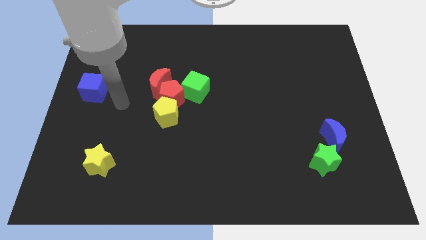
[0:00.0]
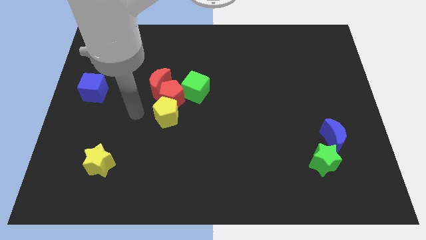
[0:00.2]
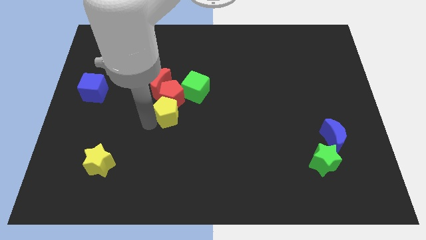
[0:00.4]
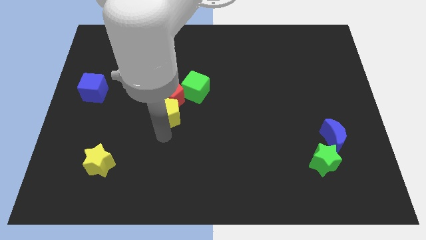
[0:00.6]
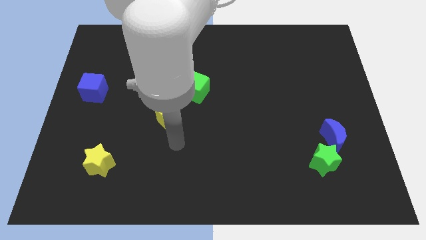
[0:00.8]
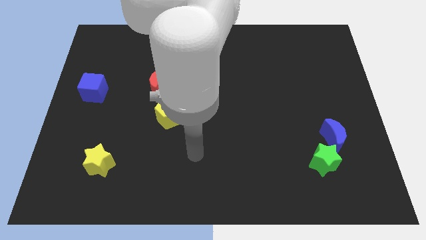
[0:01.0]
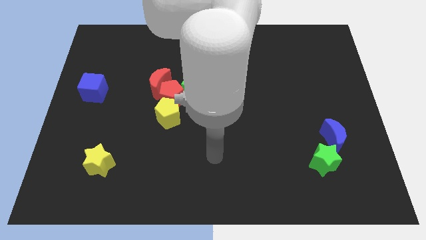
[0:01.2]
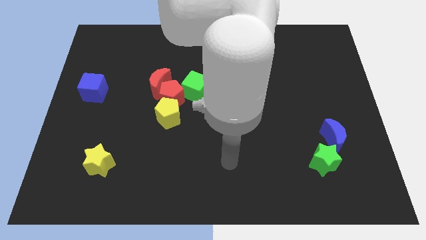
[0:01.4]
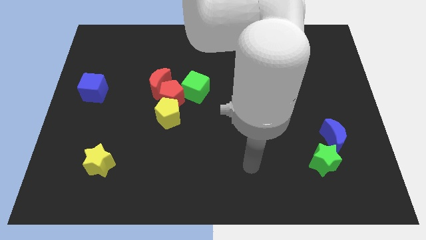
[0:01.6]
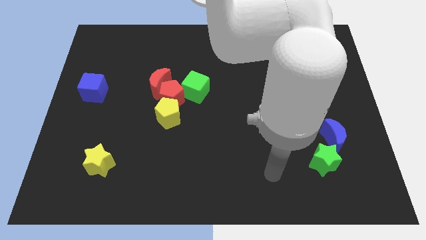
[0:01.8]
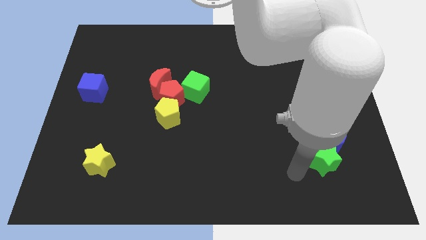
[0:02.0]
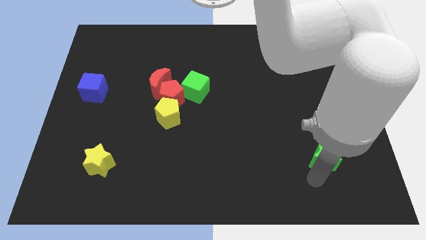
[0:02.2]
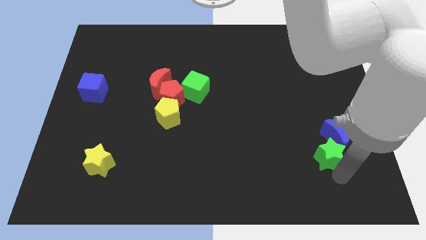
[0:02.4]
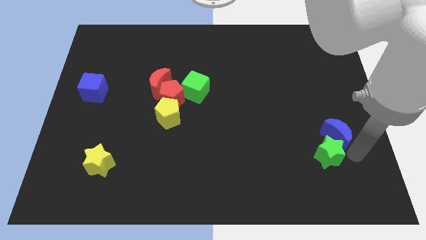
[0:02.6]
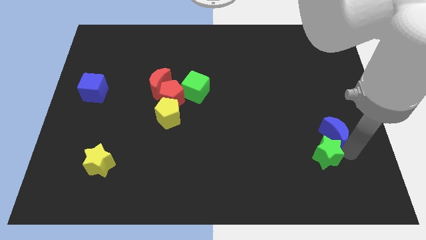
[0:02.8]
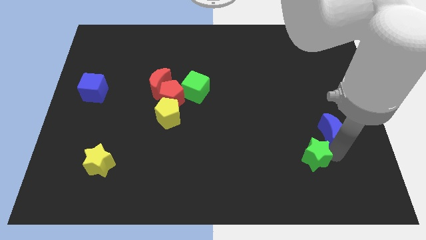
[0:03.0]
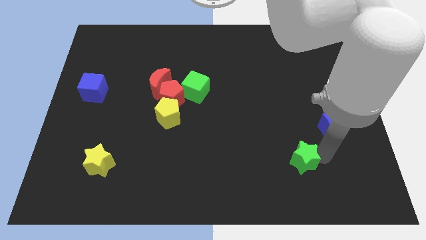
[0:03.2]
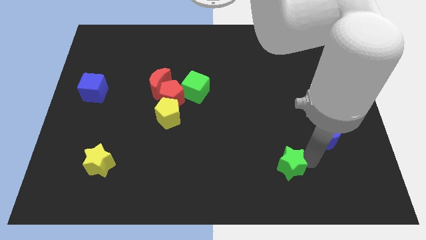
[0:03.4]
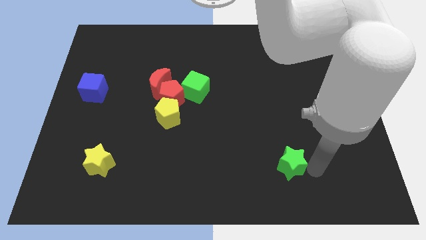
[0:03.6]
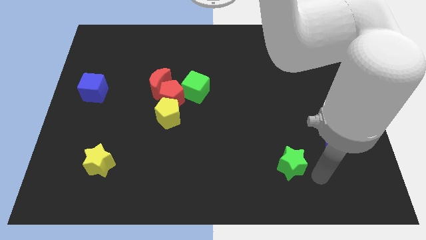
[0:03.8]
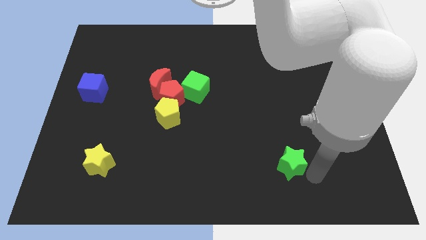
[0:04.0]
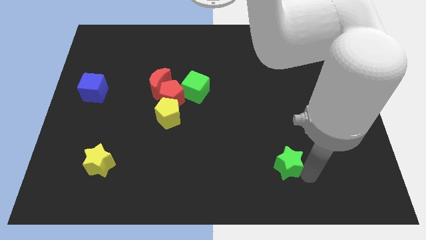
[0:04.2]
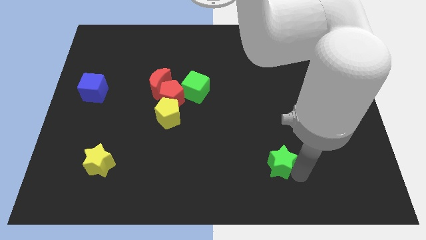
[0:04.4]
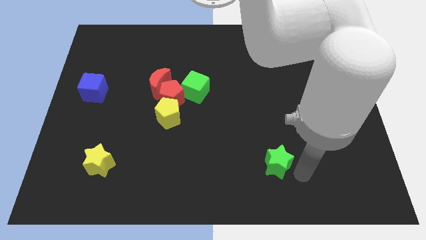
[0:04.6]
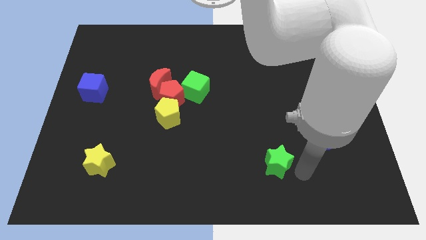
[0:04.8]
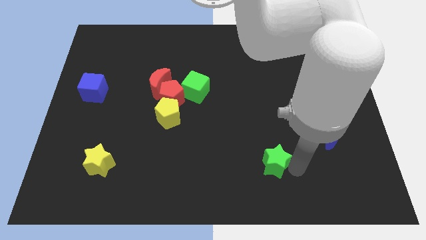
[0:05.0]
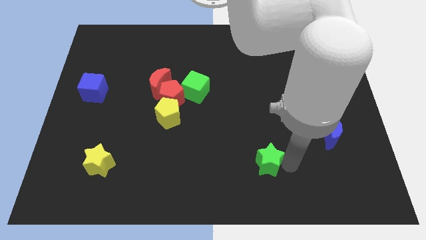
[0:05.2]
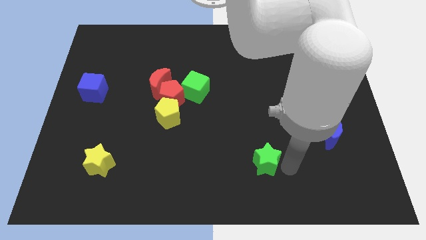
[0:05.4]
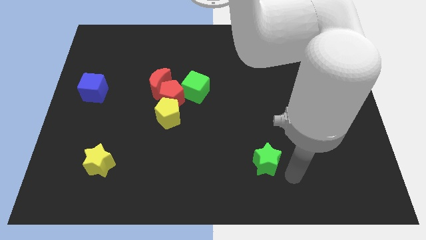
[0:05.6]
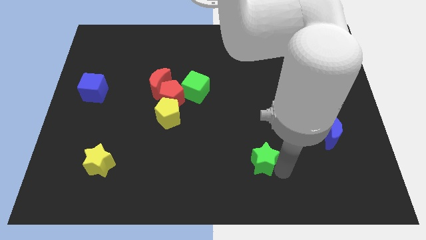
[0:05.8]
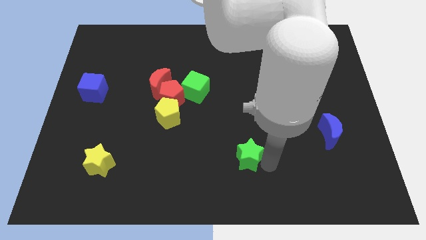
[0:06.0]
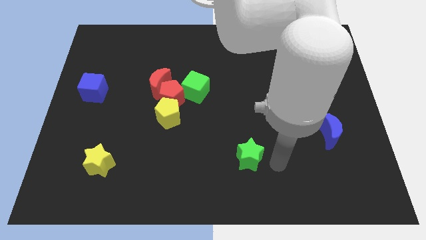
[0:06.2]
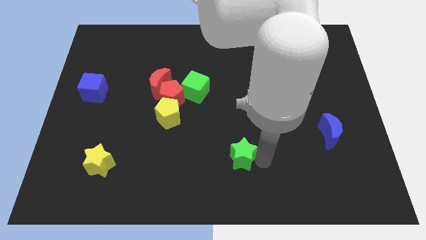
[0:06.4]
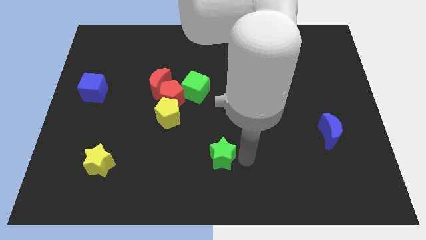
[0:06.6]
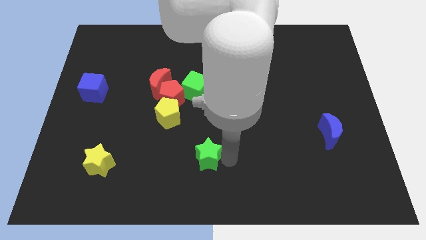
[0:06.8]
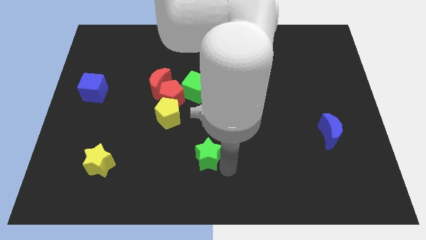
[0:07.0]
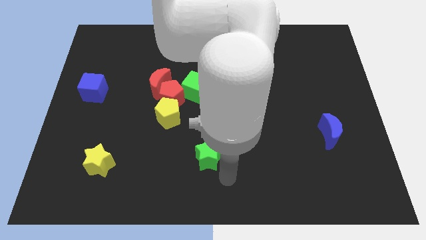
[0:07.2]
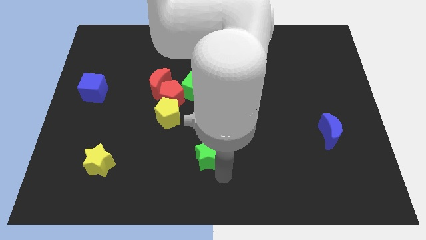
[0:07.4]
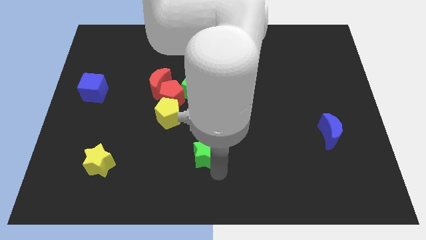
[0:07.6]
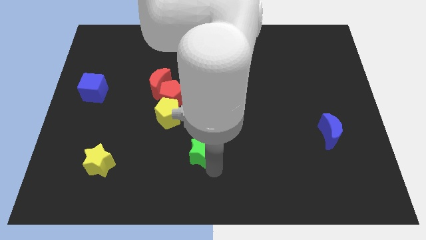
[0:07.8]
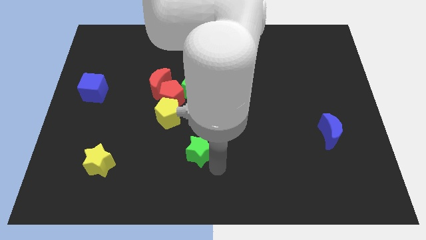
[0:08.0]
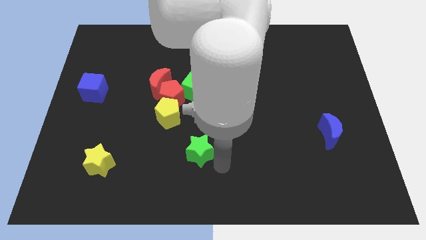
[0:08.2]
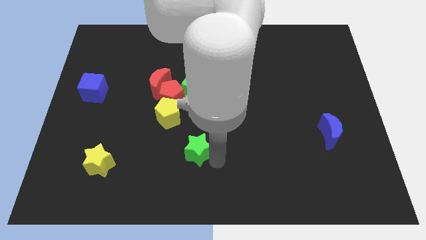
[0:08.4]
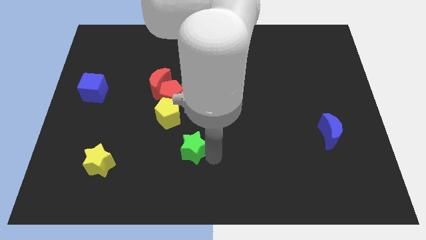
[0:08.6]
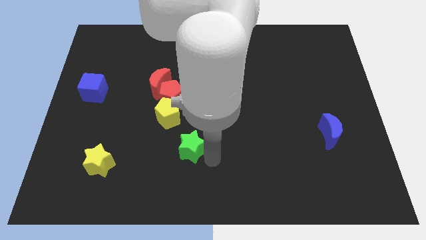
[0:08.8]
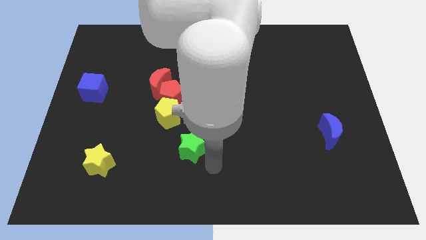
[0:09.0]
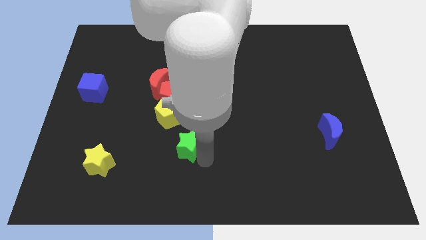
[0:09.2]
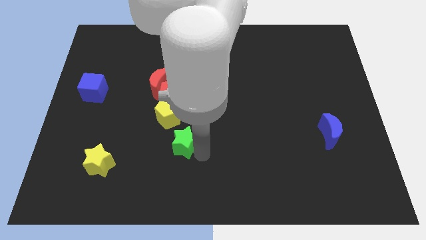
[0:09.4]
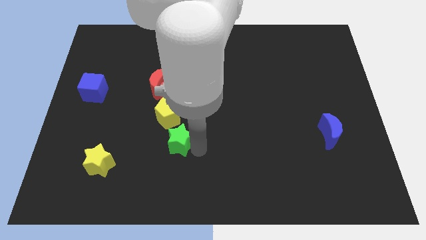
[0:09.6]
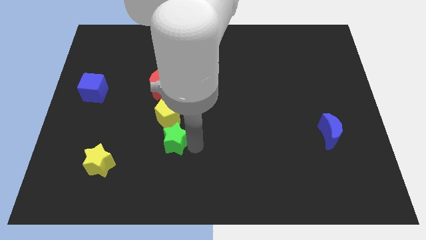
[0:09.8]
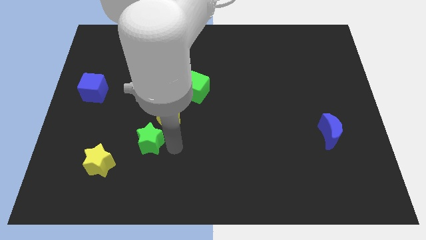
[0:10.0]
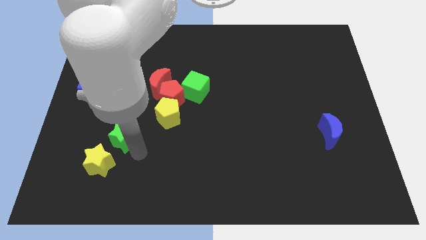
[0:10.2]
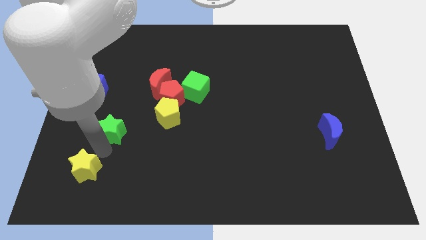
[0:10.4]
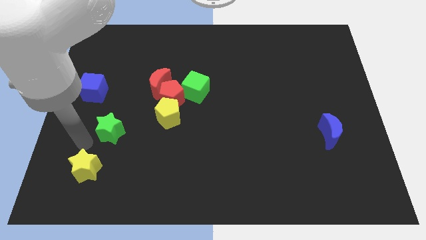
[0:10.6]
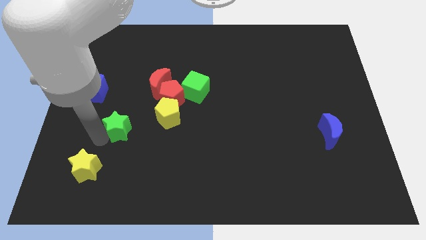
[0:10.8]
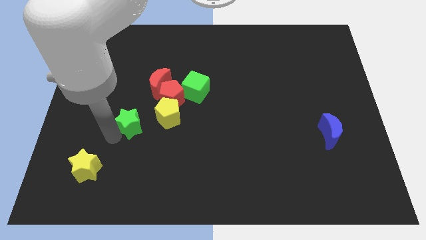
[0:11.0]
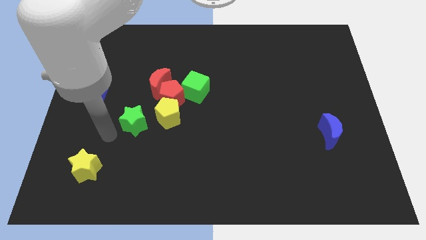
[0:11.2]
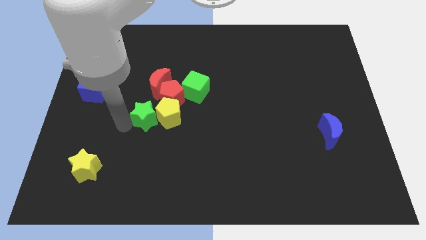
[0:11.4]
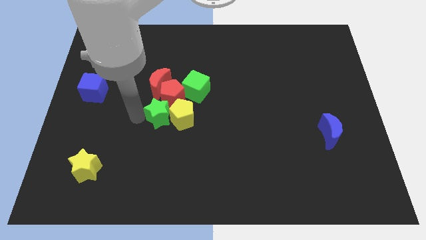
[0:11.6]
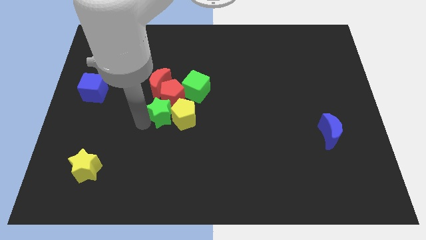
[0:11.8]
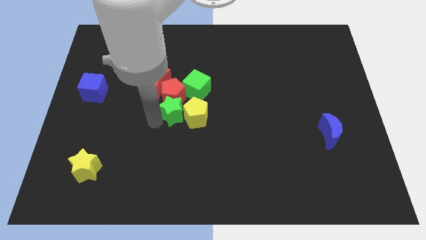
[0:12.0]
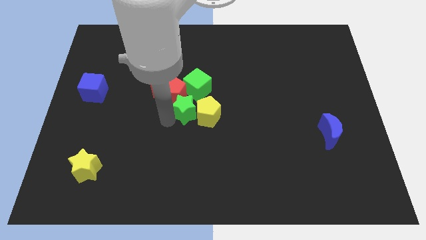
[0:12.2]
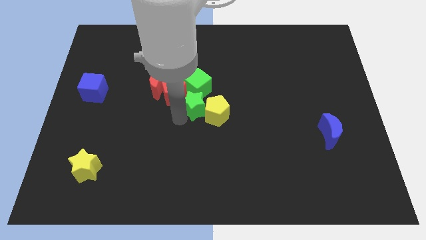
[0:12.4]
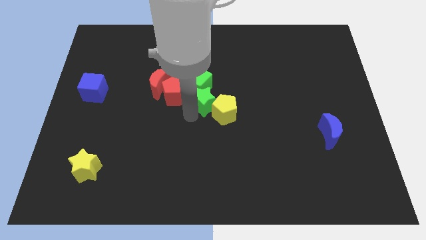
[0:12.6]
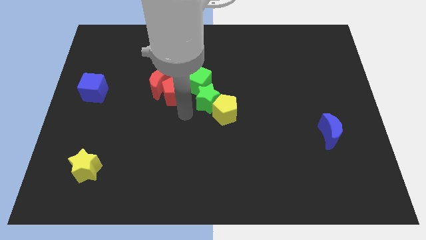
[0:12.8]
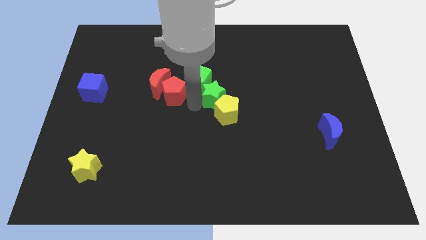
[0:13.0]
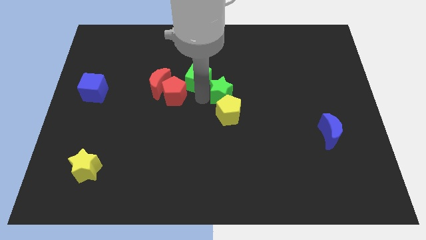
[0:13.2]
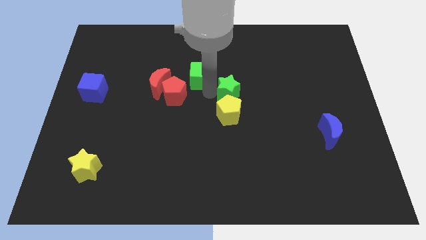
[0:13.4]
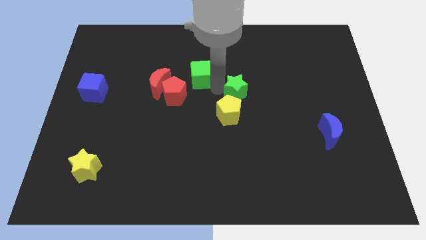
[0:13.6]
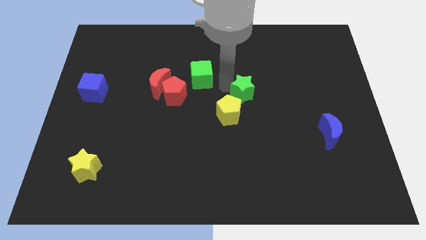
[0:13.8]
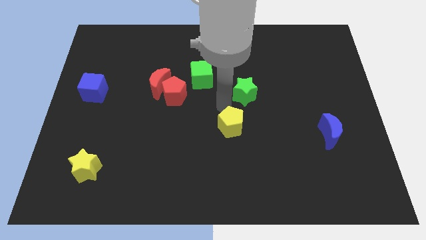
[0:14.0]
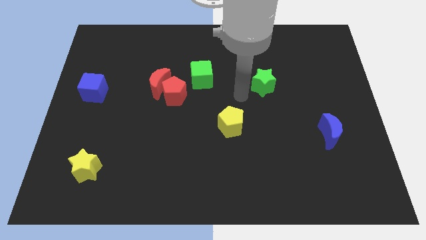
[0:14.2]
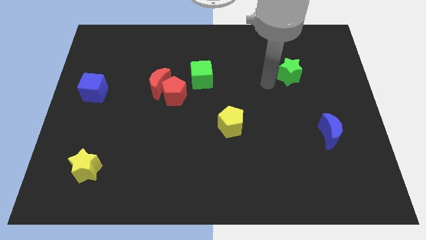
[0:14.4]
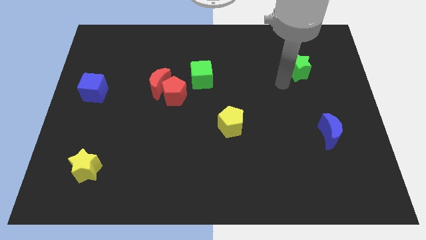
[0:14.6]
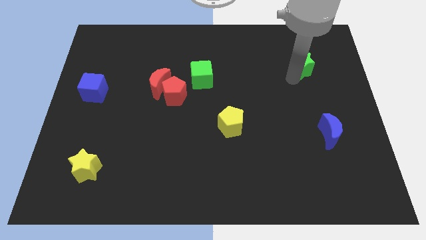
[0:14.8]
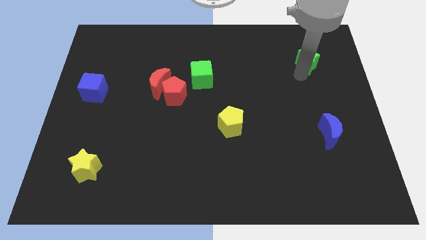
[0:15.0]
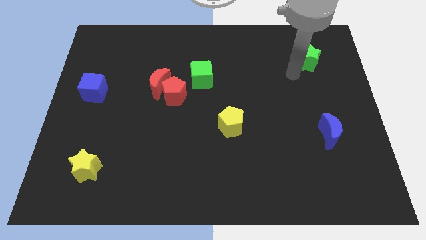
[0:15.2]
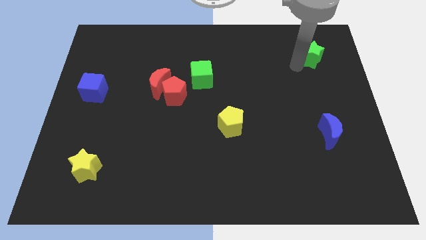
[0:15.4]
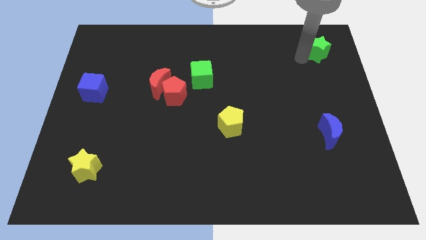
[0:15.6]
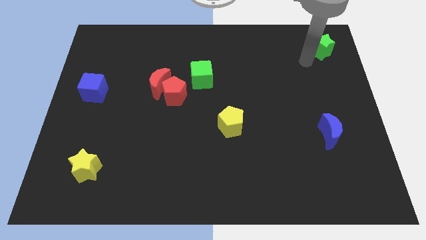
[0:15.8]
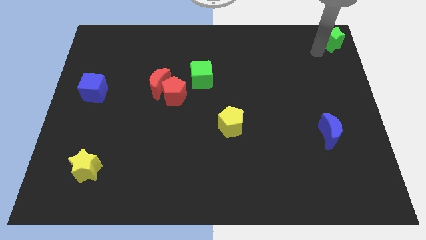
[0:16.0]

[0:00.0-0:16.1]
put the green star to the top right corner
